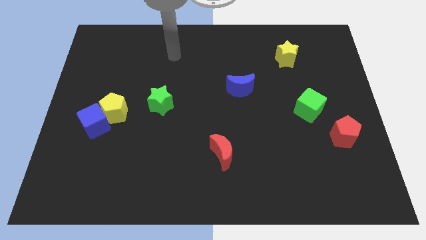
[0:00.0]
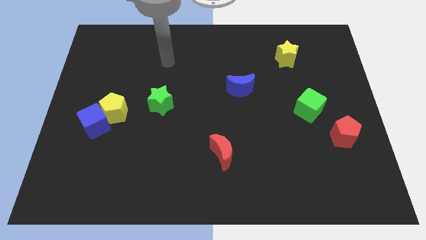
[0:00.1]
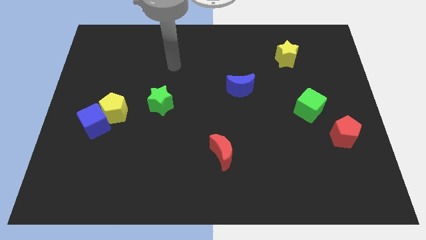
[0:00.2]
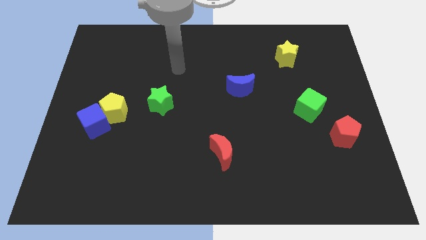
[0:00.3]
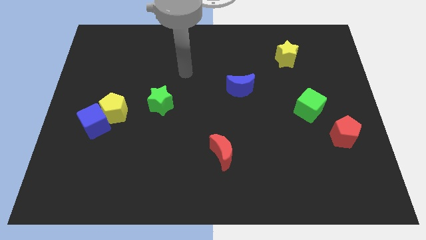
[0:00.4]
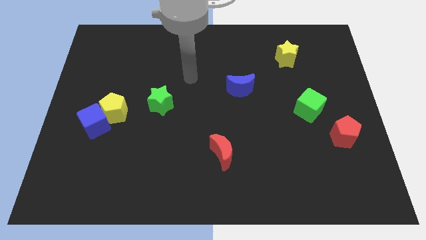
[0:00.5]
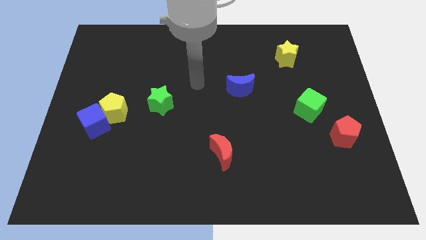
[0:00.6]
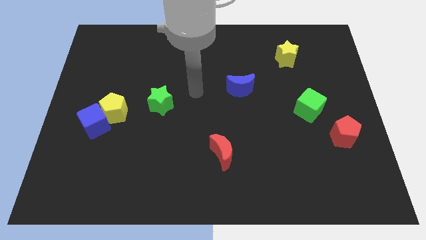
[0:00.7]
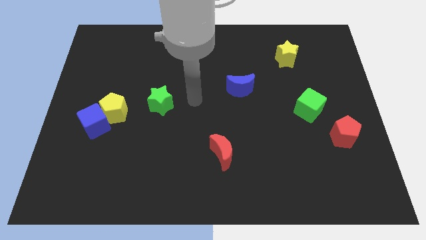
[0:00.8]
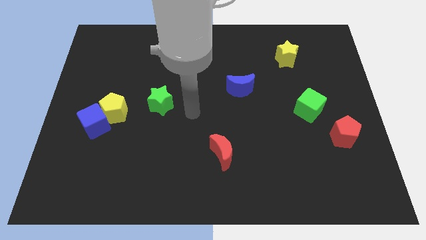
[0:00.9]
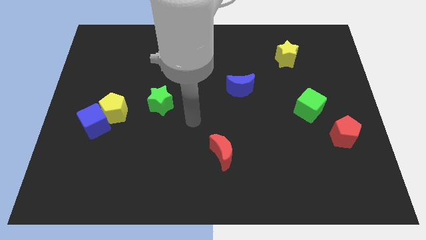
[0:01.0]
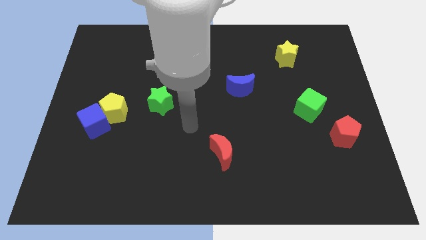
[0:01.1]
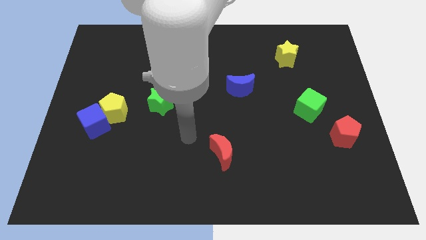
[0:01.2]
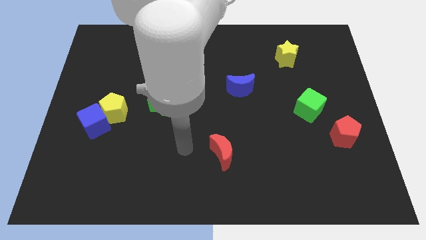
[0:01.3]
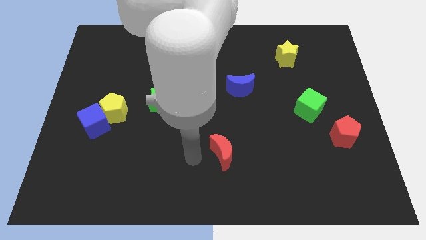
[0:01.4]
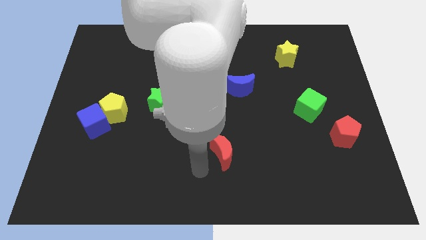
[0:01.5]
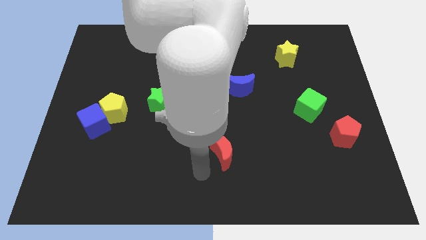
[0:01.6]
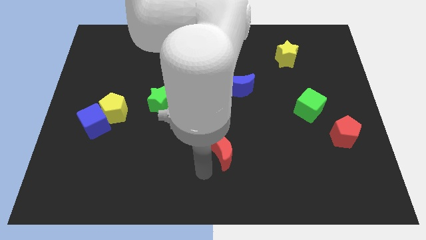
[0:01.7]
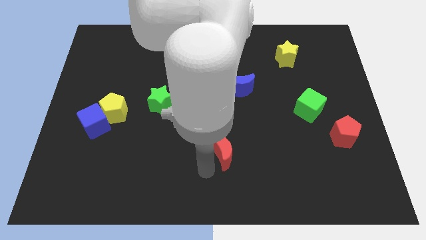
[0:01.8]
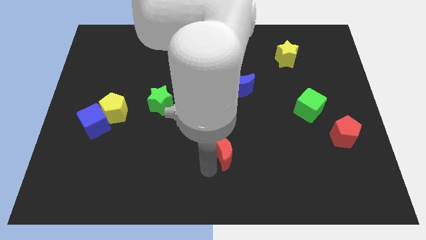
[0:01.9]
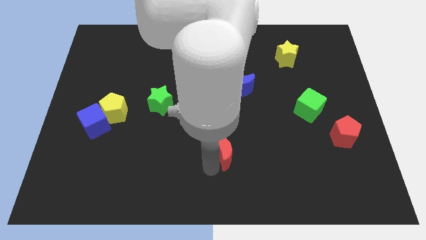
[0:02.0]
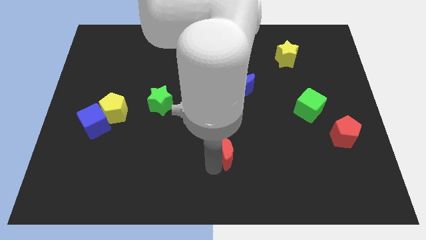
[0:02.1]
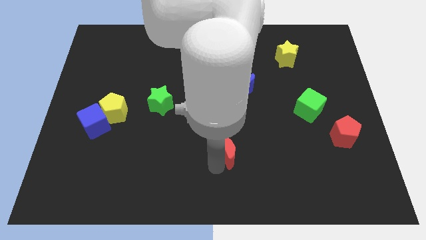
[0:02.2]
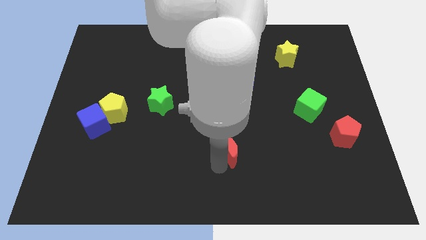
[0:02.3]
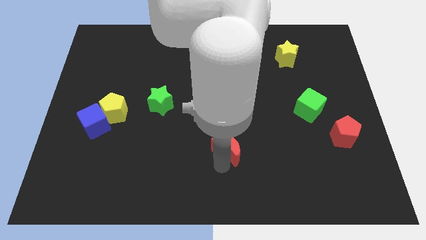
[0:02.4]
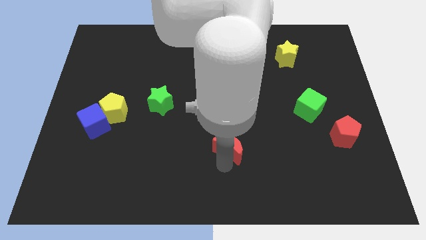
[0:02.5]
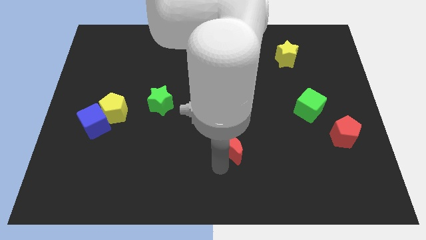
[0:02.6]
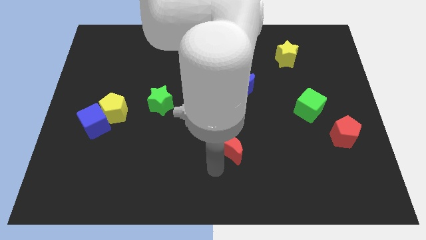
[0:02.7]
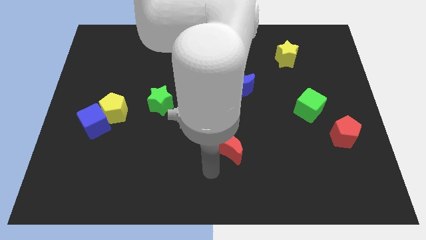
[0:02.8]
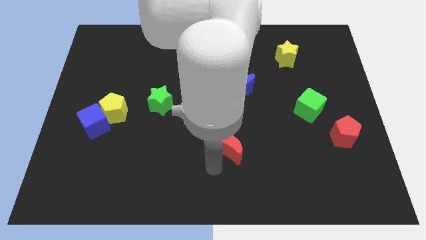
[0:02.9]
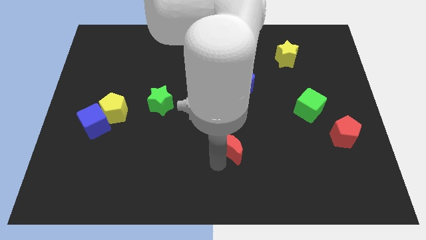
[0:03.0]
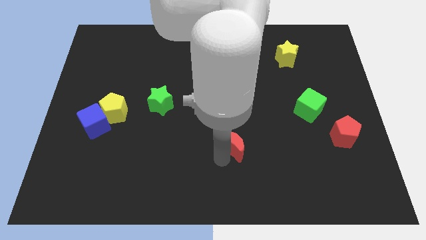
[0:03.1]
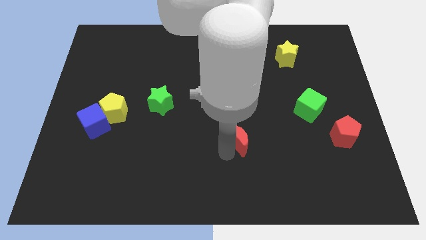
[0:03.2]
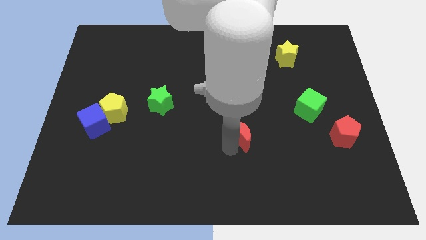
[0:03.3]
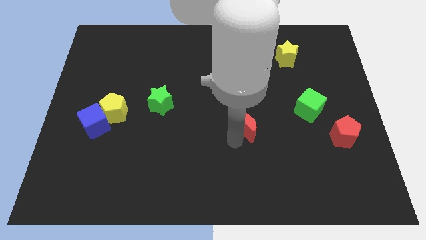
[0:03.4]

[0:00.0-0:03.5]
push the red moon slightly up and right

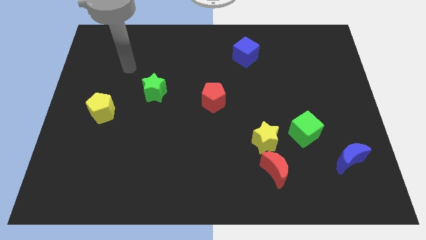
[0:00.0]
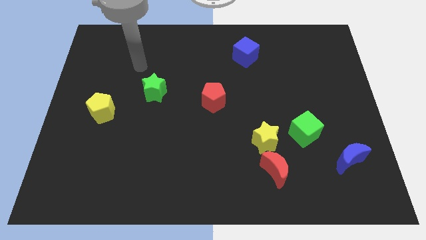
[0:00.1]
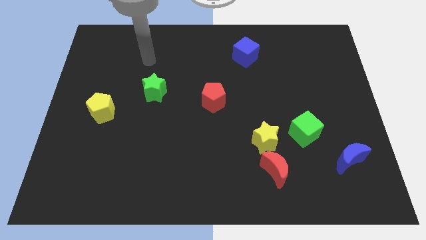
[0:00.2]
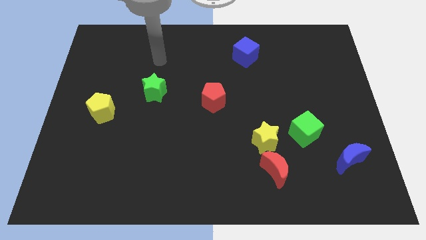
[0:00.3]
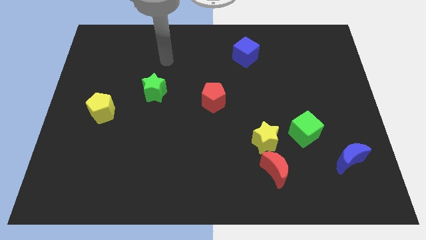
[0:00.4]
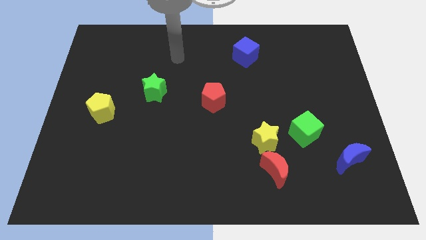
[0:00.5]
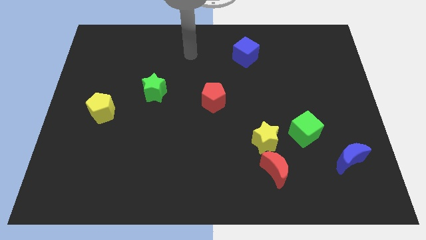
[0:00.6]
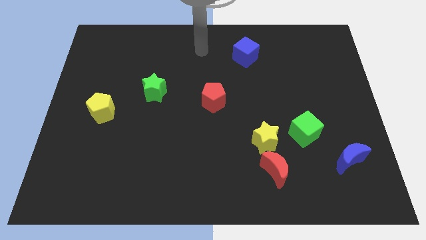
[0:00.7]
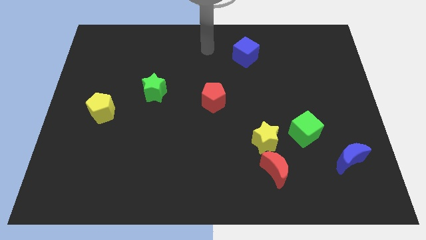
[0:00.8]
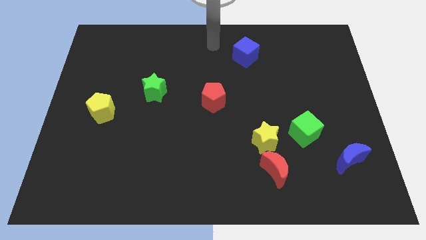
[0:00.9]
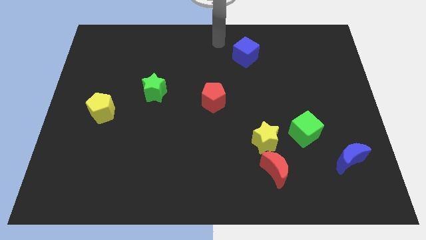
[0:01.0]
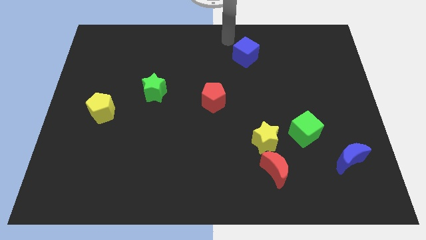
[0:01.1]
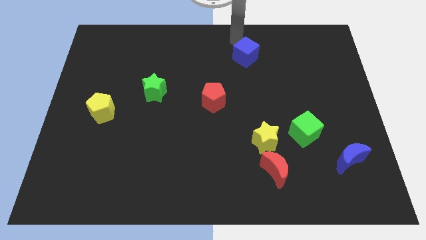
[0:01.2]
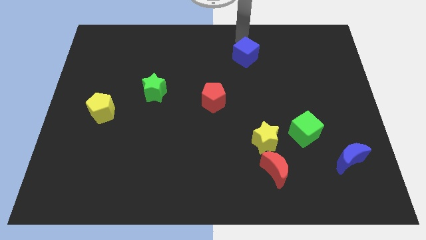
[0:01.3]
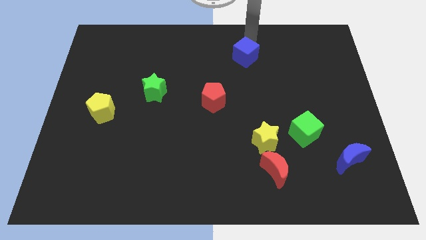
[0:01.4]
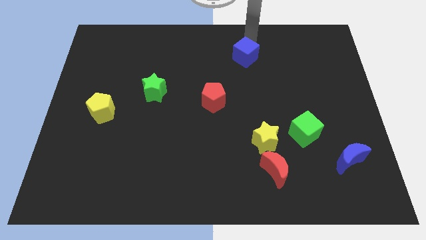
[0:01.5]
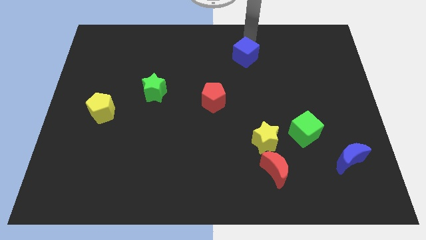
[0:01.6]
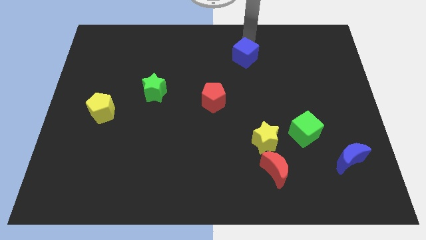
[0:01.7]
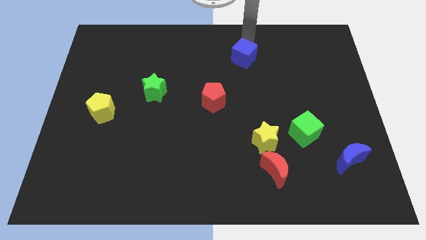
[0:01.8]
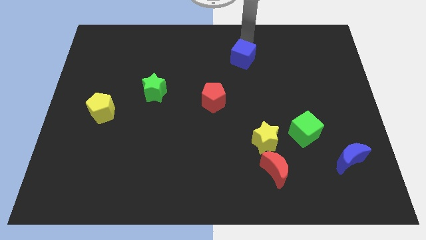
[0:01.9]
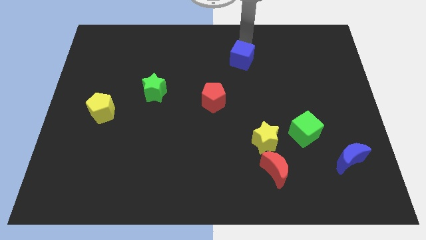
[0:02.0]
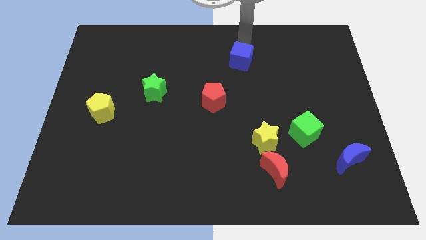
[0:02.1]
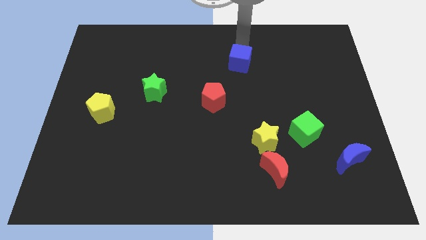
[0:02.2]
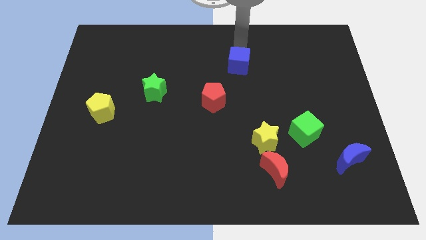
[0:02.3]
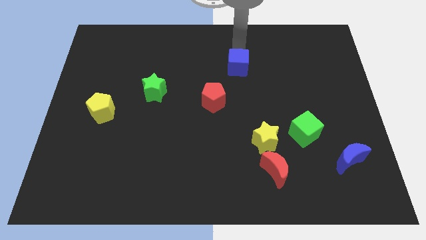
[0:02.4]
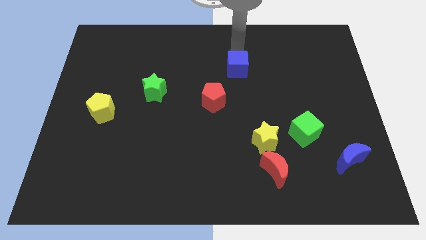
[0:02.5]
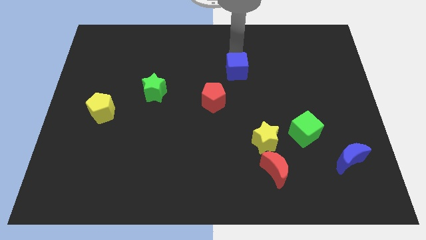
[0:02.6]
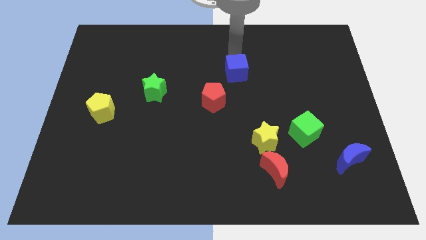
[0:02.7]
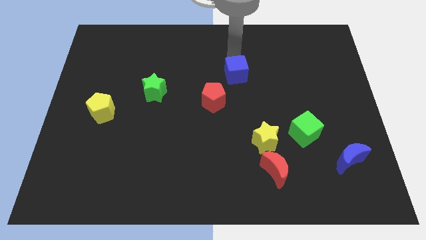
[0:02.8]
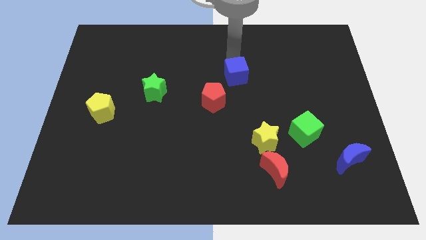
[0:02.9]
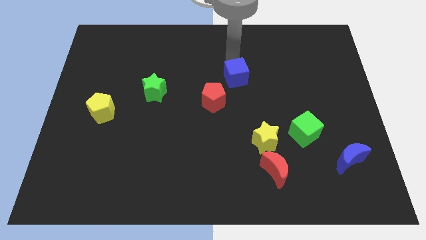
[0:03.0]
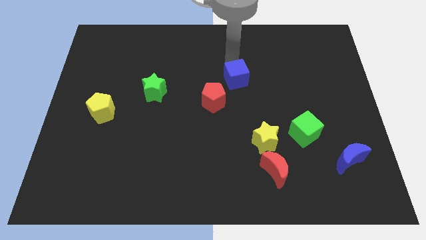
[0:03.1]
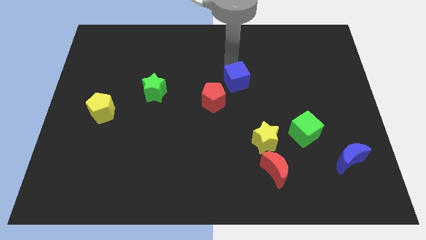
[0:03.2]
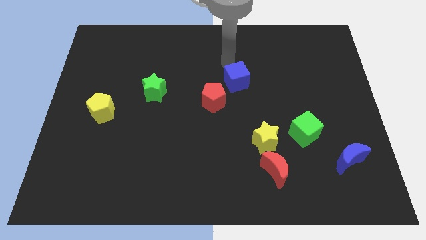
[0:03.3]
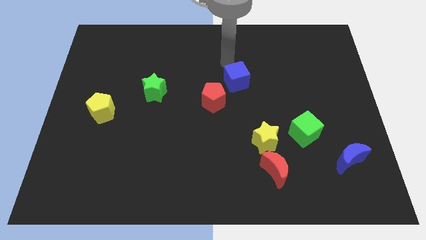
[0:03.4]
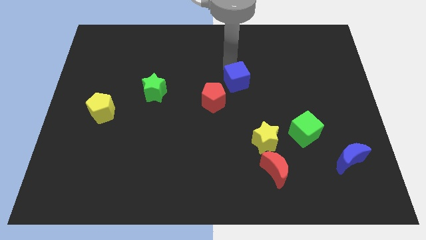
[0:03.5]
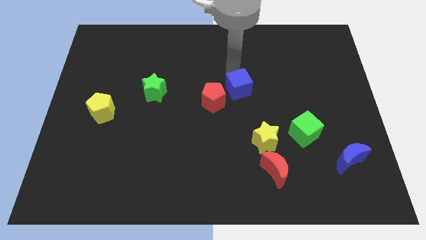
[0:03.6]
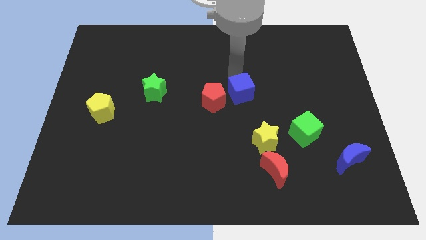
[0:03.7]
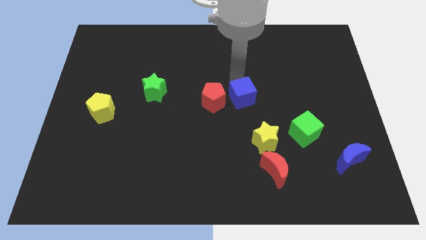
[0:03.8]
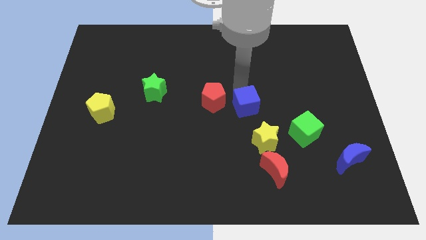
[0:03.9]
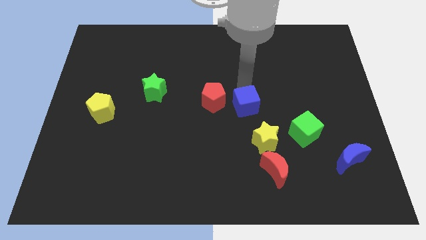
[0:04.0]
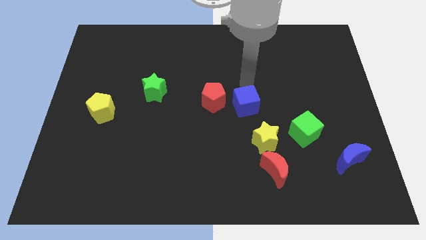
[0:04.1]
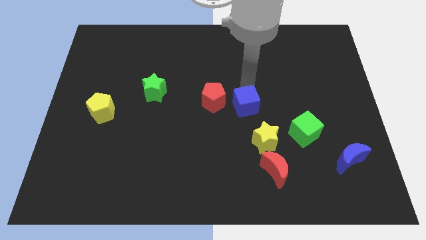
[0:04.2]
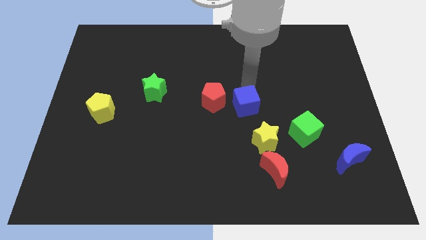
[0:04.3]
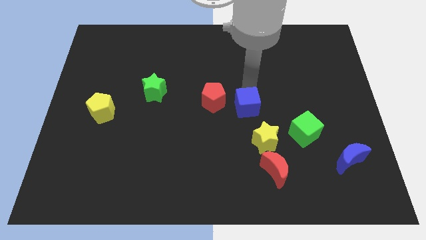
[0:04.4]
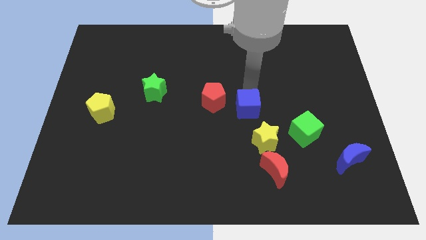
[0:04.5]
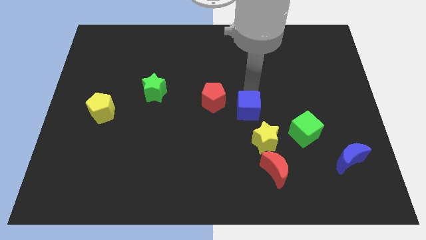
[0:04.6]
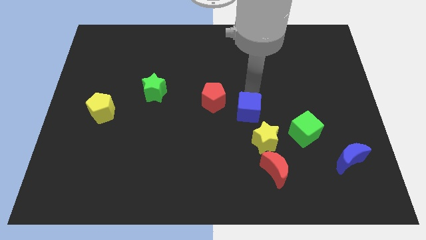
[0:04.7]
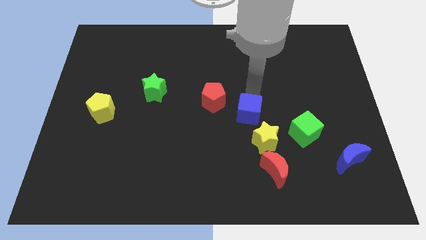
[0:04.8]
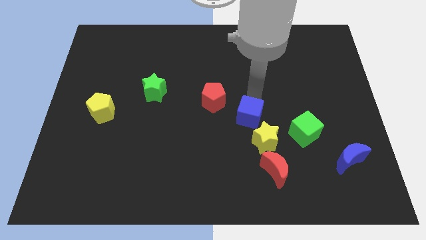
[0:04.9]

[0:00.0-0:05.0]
slide the blue cube downwards
